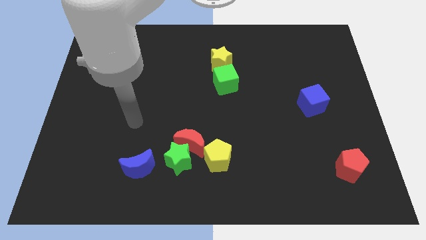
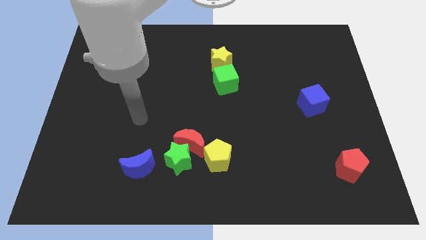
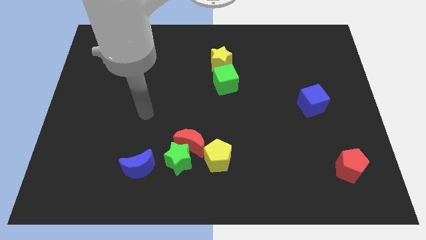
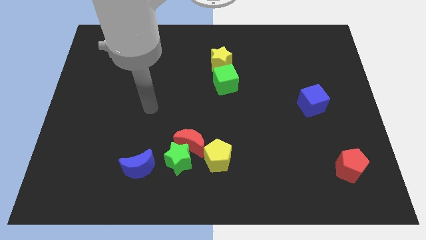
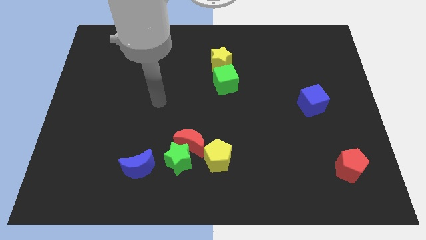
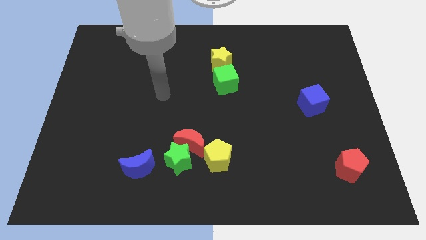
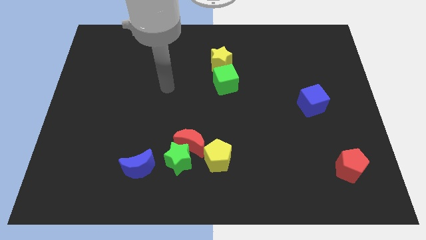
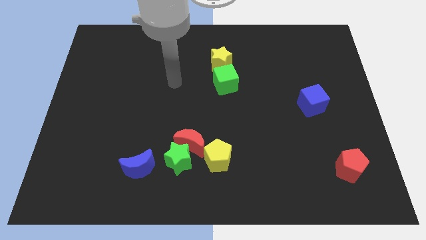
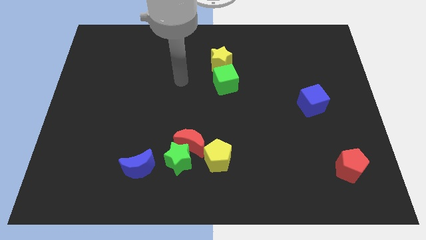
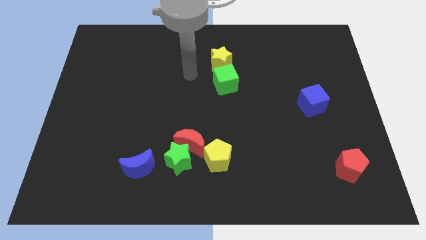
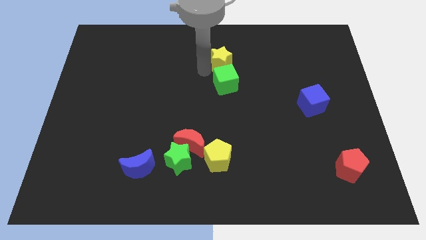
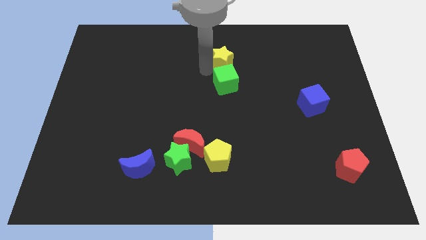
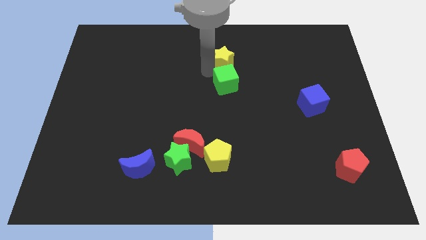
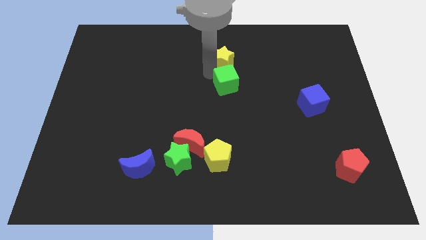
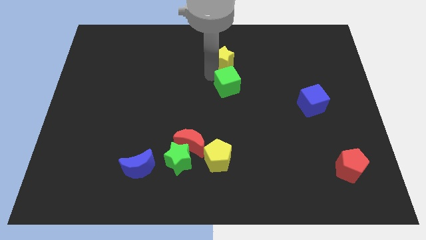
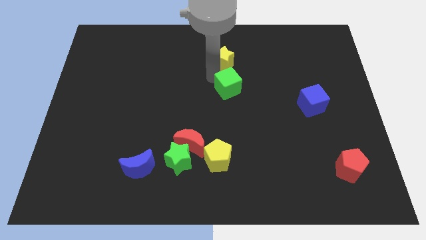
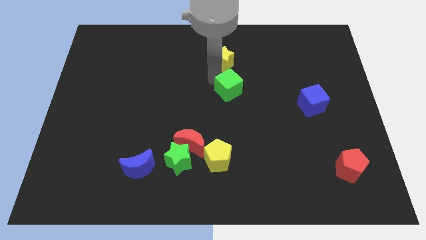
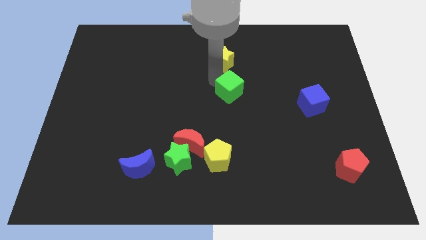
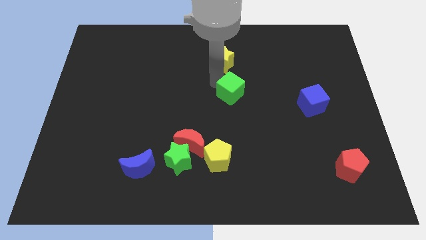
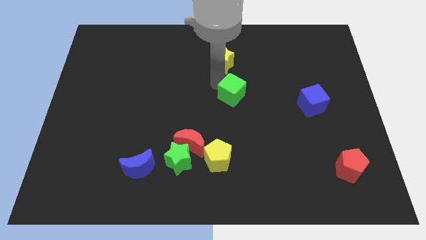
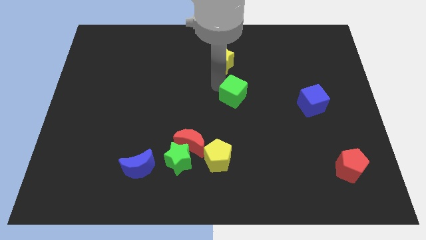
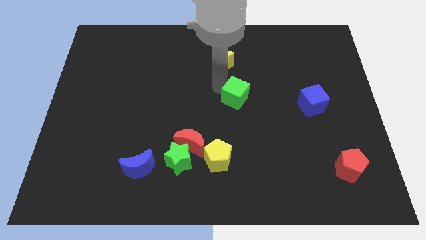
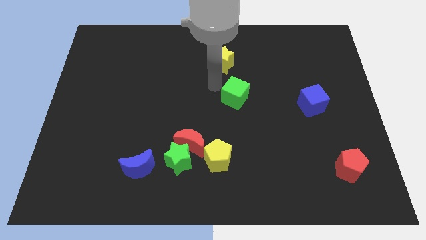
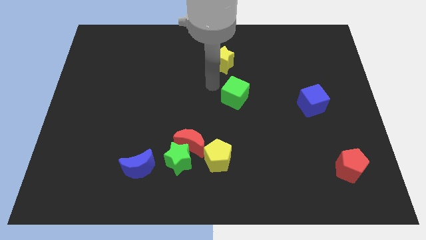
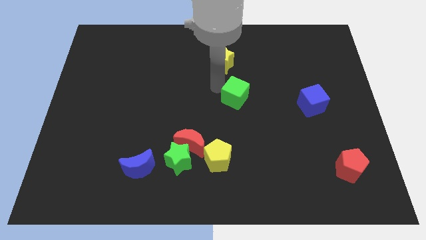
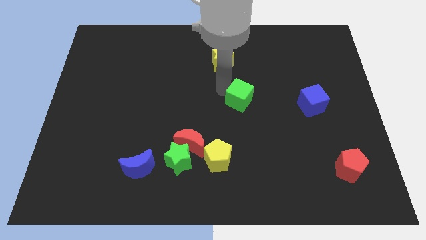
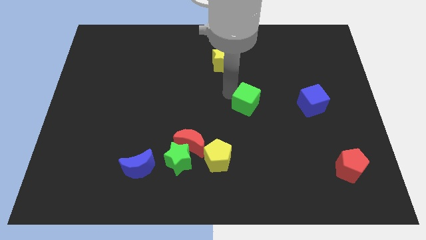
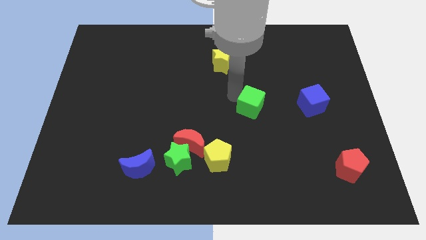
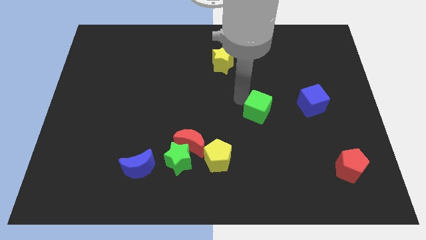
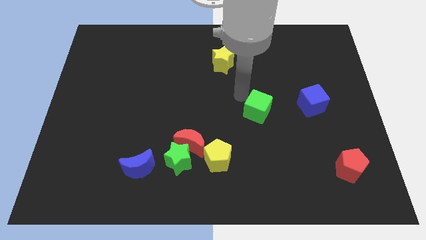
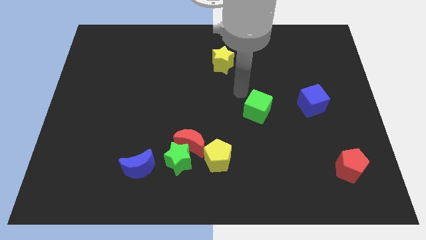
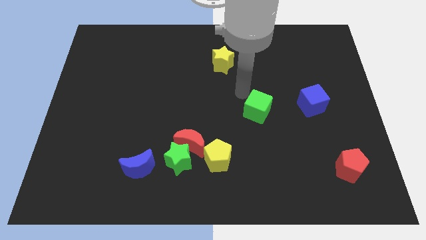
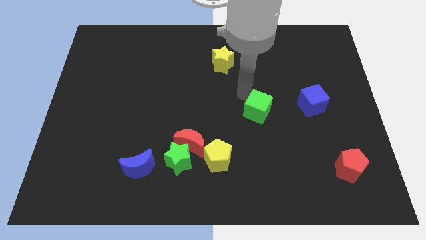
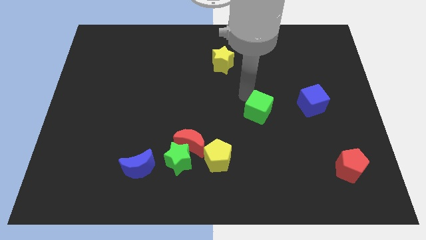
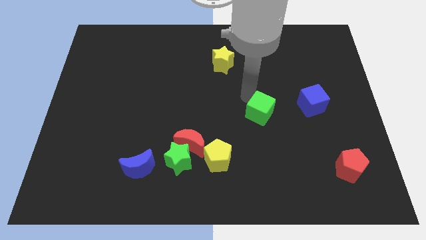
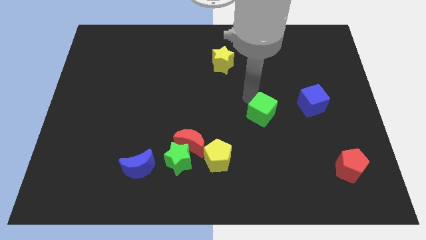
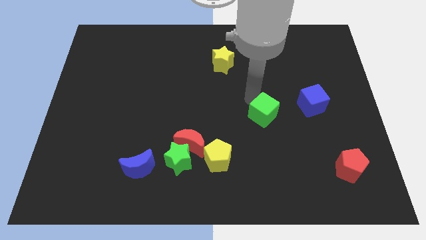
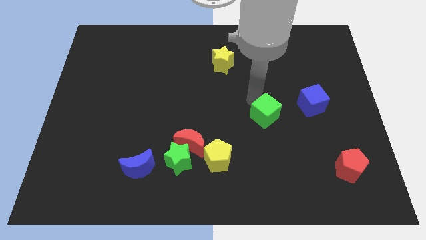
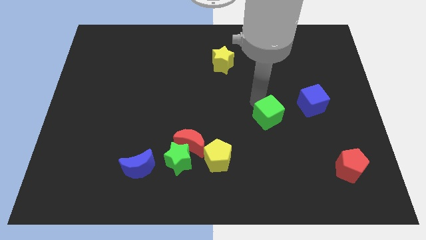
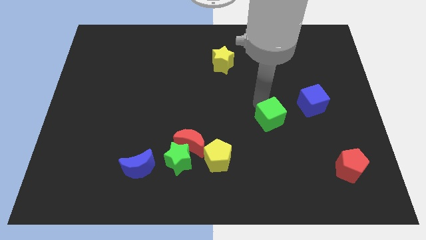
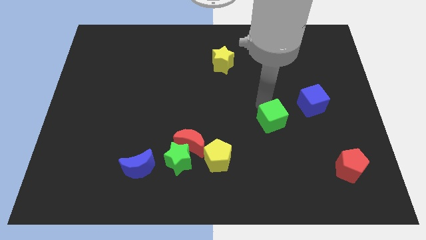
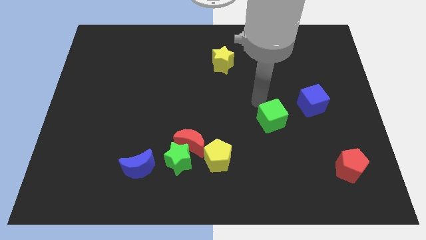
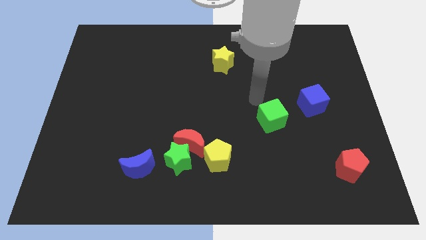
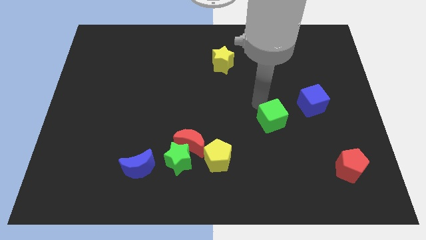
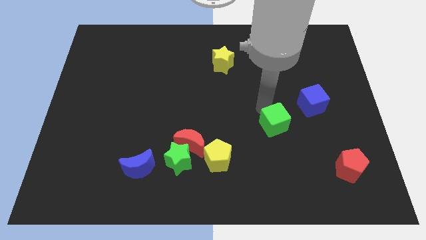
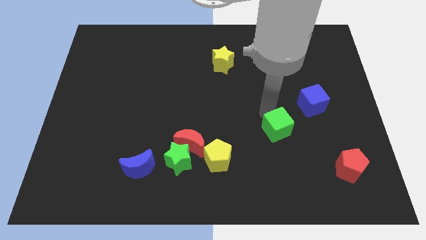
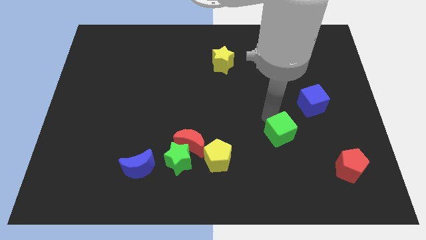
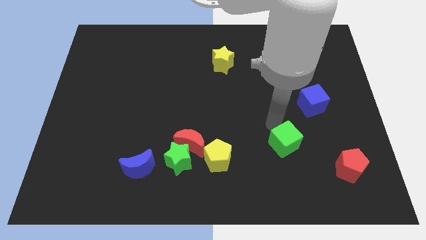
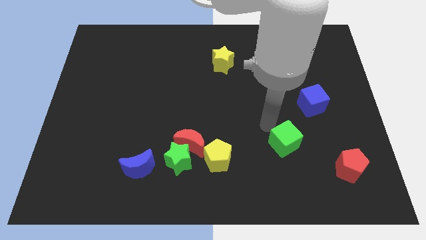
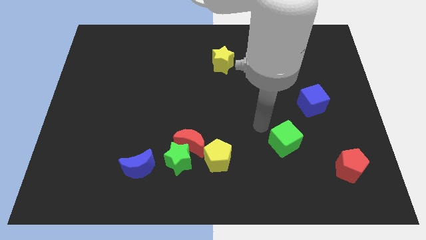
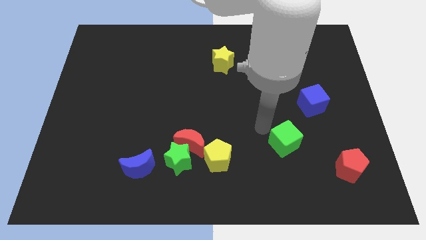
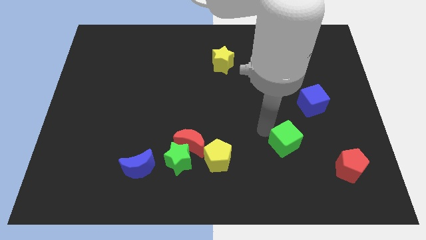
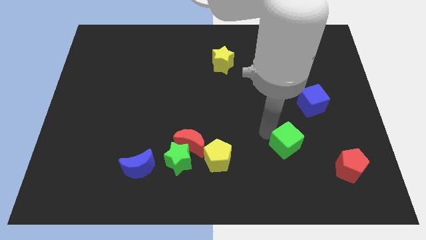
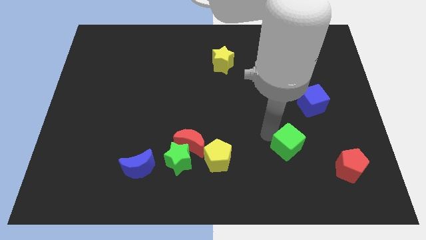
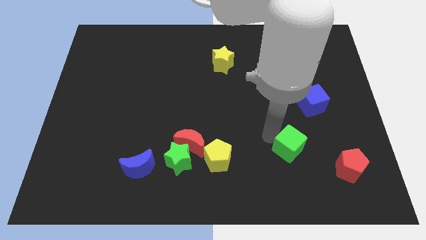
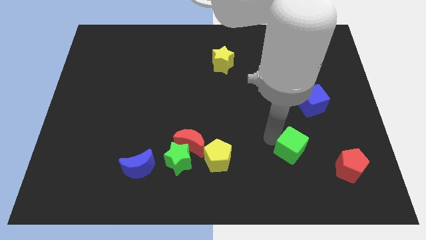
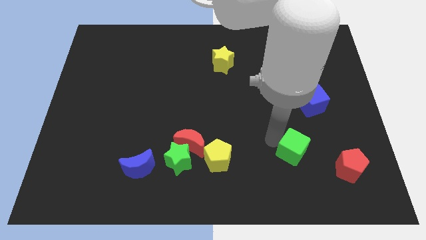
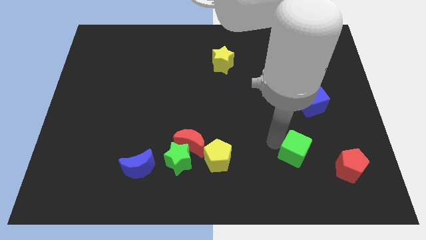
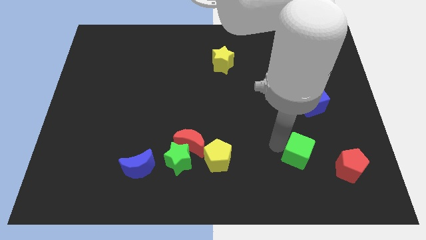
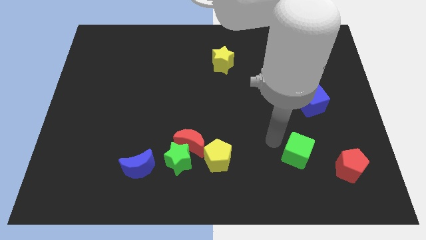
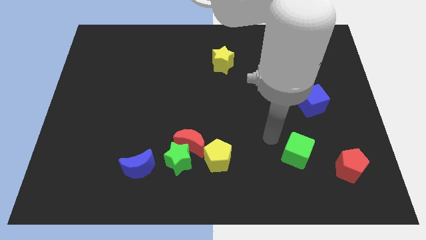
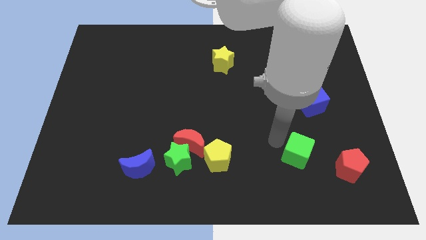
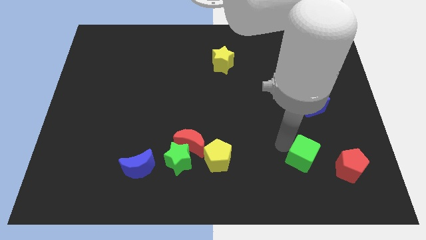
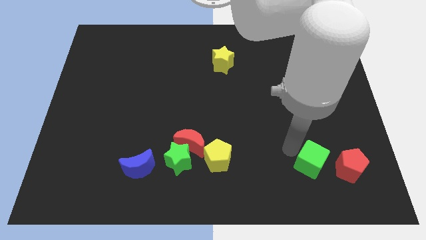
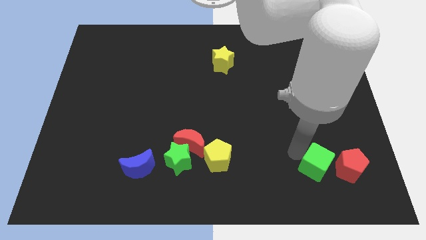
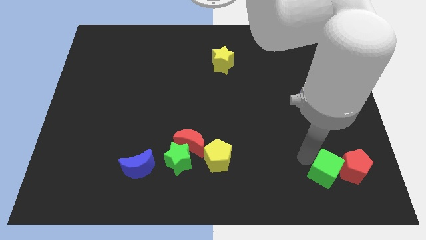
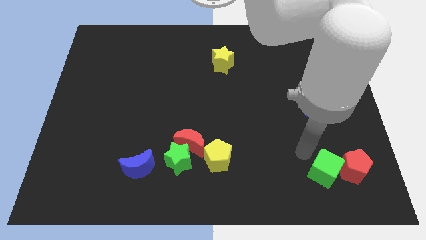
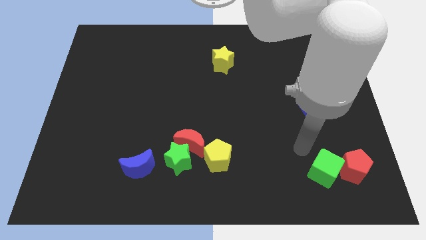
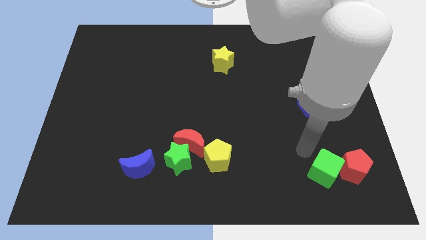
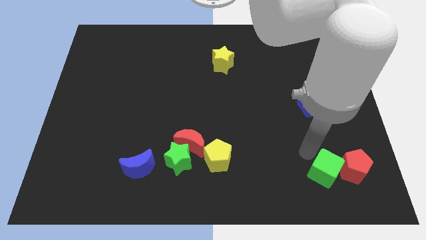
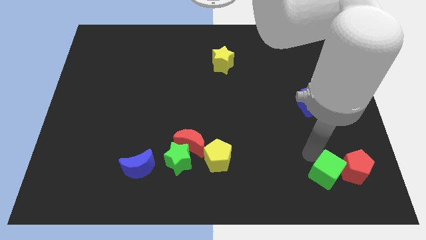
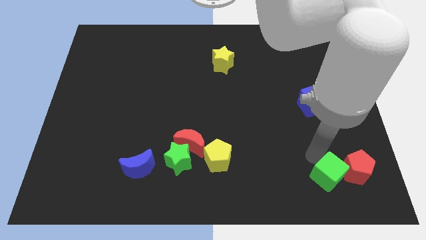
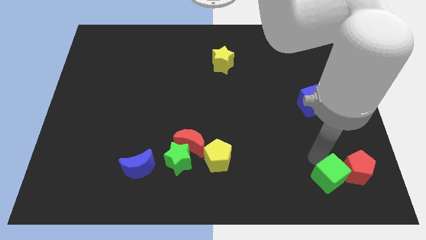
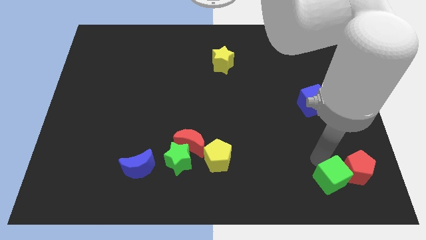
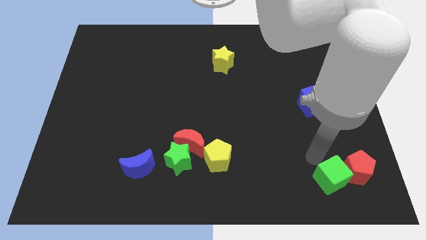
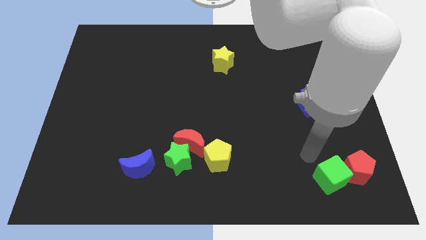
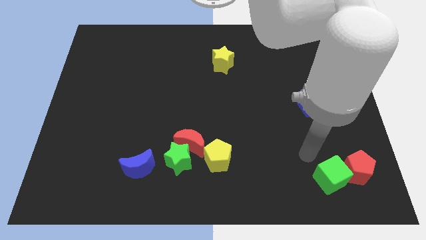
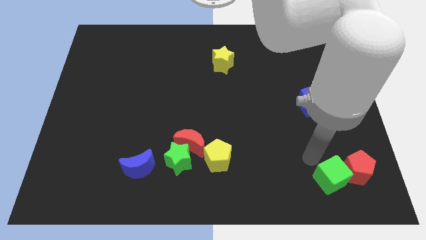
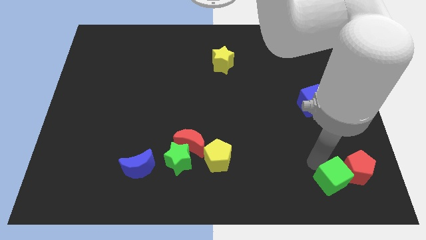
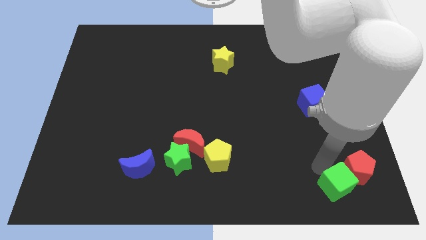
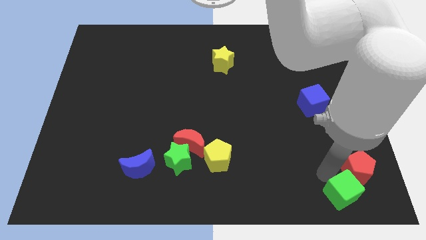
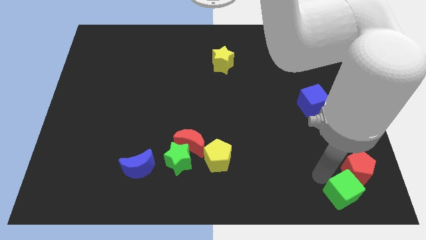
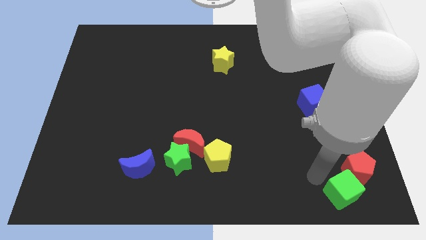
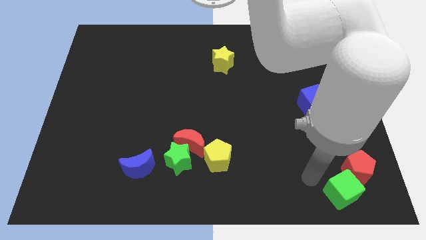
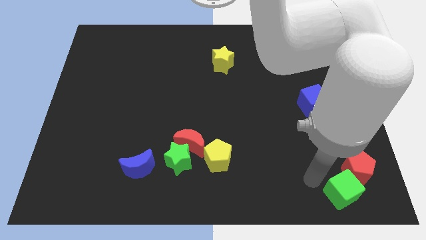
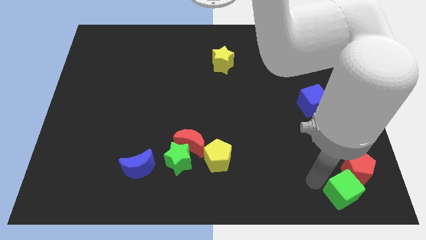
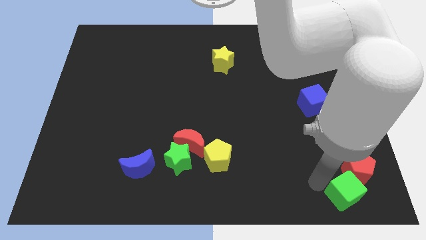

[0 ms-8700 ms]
move the green cube to the bottom right of the board
